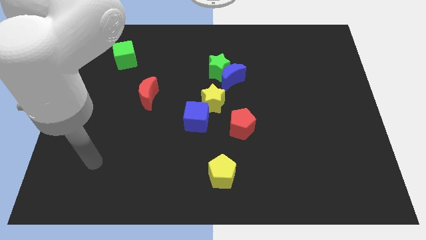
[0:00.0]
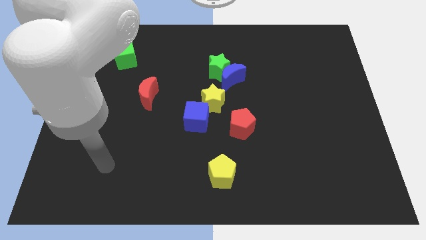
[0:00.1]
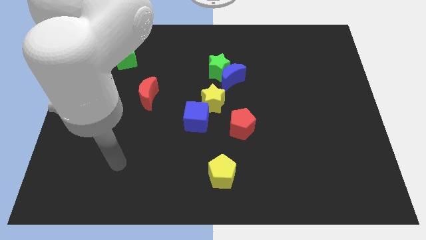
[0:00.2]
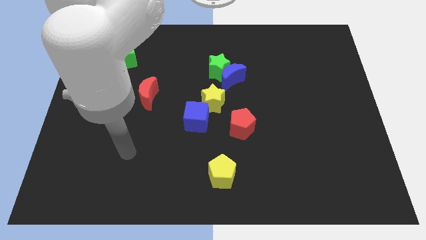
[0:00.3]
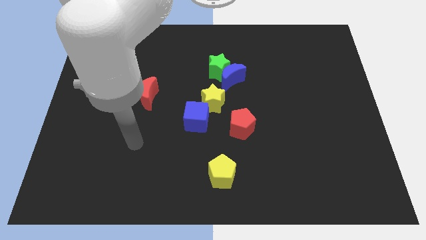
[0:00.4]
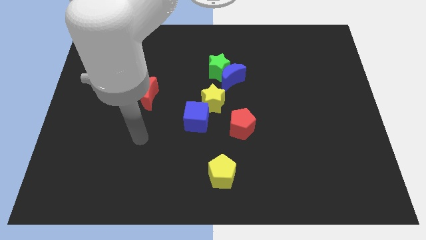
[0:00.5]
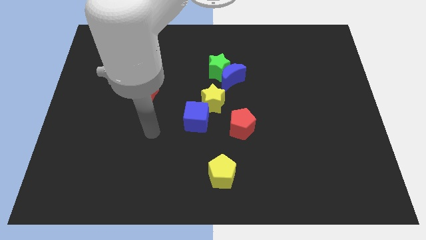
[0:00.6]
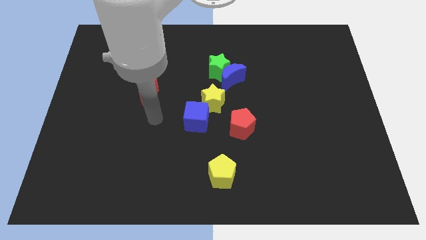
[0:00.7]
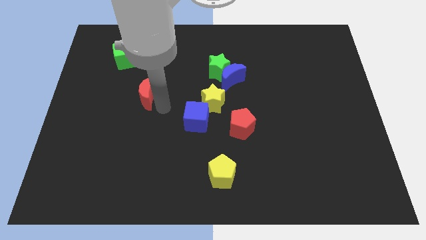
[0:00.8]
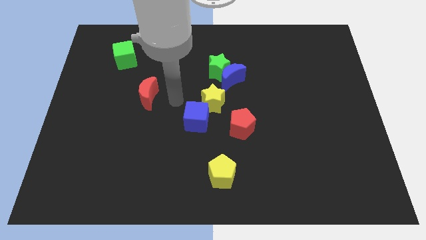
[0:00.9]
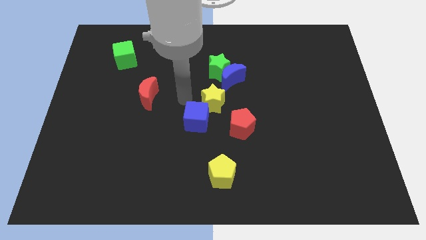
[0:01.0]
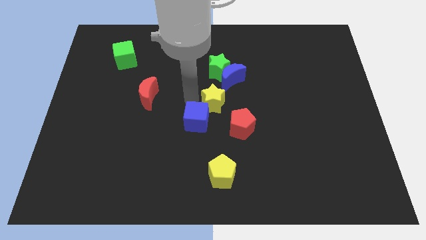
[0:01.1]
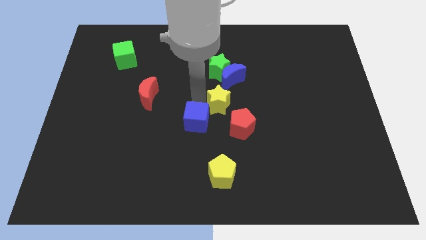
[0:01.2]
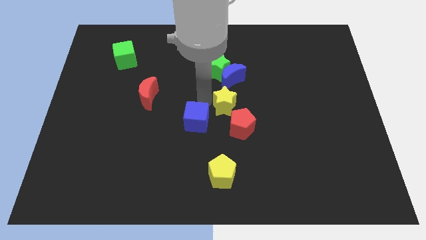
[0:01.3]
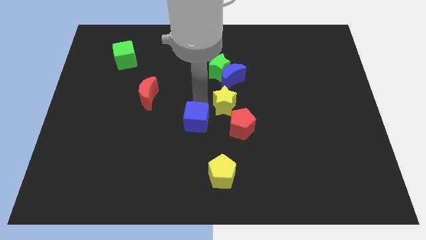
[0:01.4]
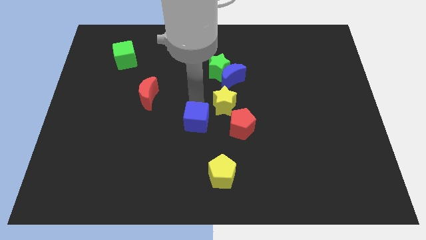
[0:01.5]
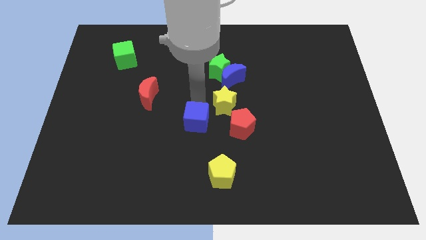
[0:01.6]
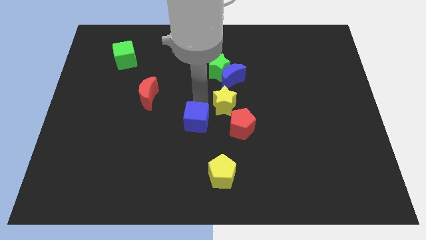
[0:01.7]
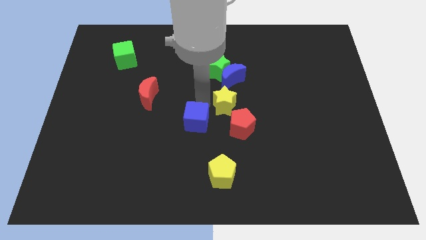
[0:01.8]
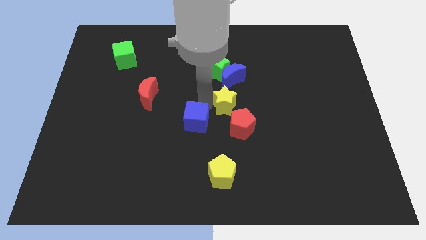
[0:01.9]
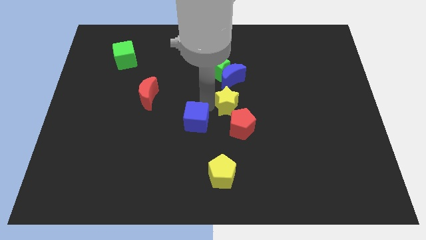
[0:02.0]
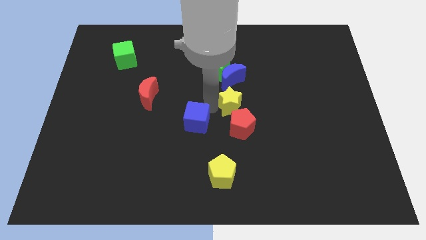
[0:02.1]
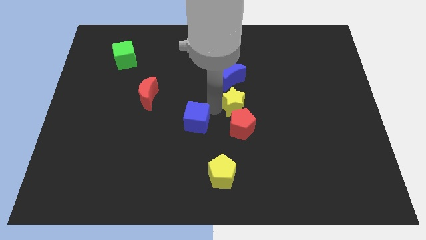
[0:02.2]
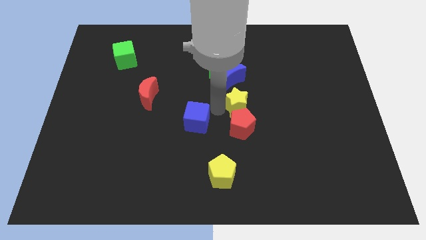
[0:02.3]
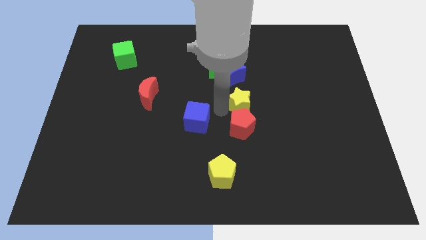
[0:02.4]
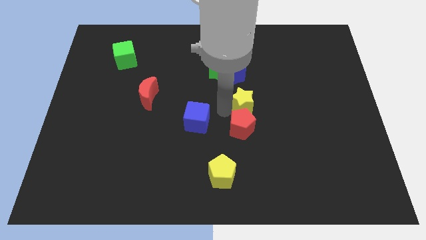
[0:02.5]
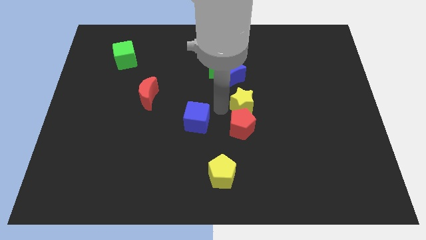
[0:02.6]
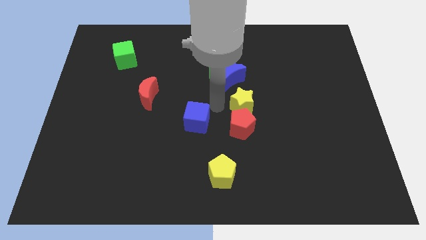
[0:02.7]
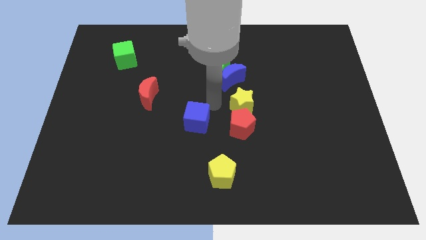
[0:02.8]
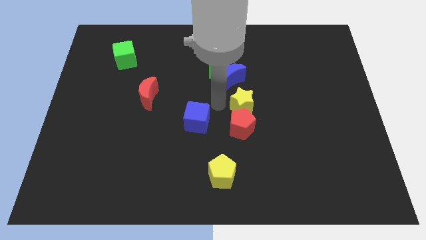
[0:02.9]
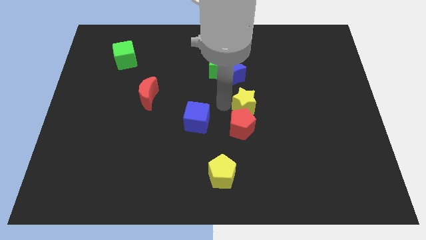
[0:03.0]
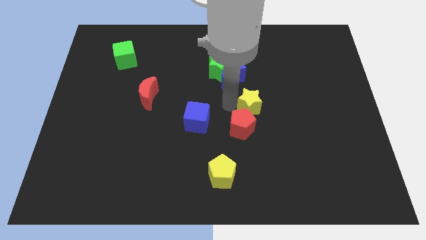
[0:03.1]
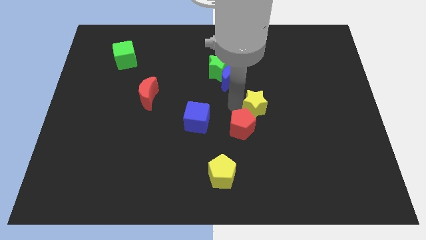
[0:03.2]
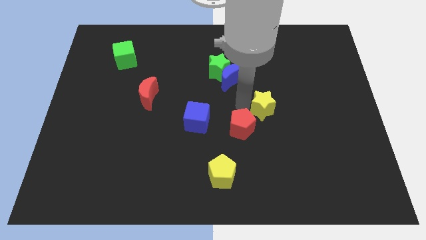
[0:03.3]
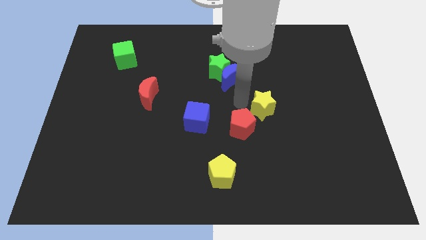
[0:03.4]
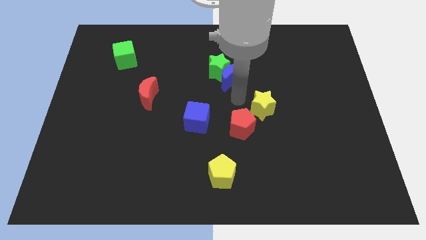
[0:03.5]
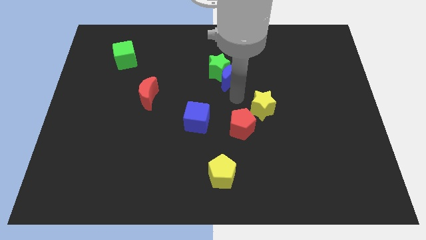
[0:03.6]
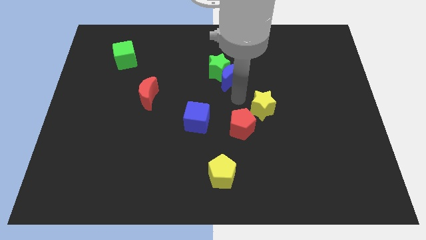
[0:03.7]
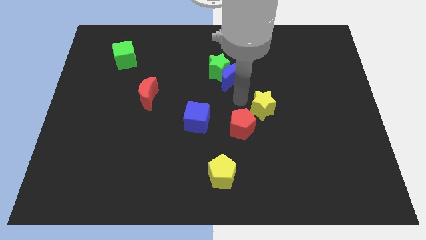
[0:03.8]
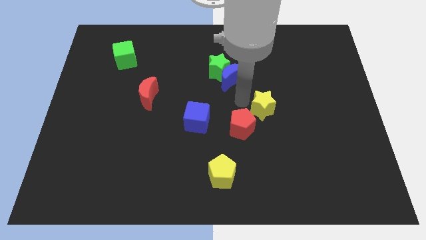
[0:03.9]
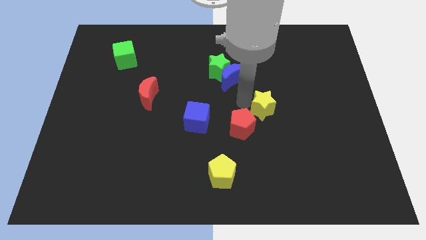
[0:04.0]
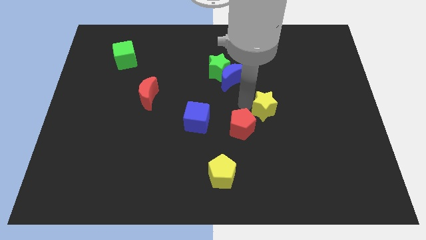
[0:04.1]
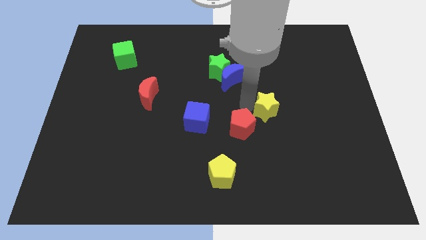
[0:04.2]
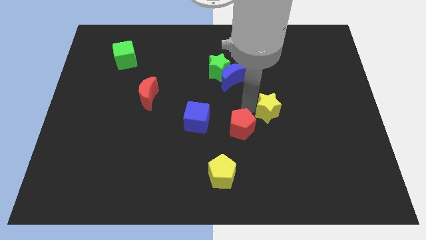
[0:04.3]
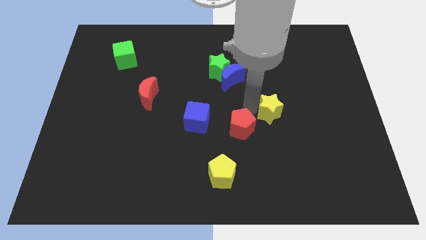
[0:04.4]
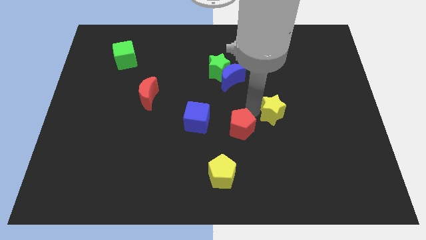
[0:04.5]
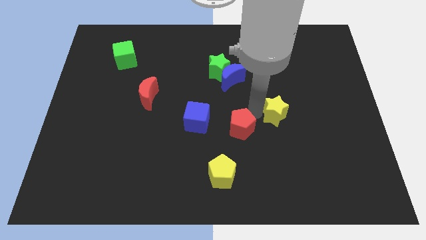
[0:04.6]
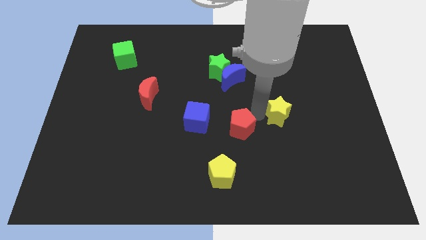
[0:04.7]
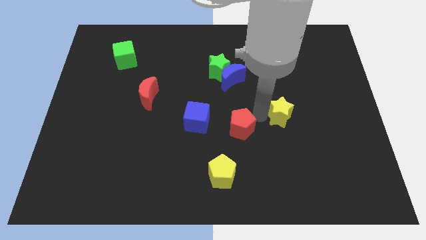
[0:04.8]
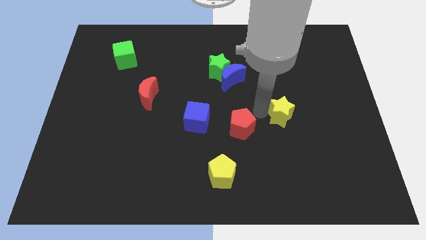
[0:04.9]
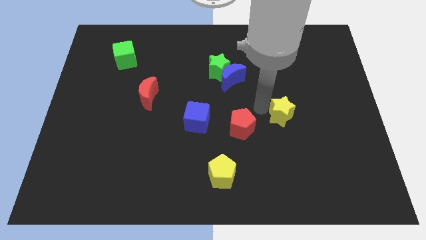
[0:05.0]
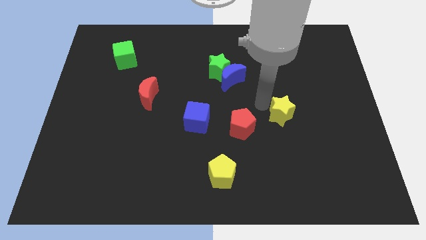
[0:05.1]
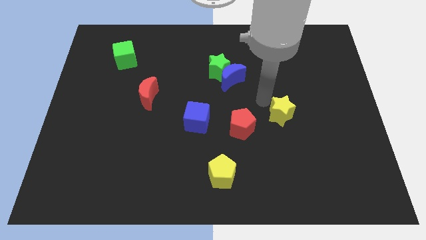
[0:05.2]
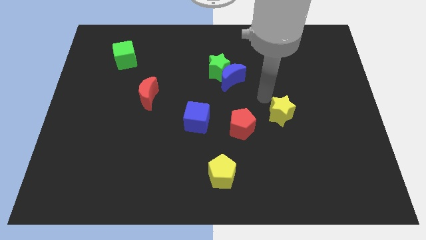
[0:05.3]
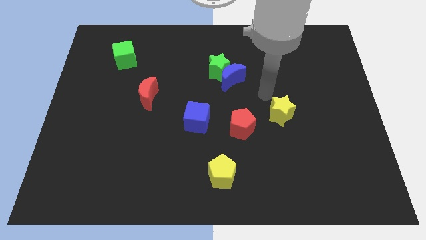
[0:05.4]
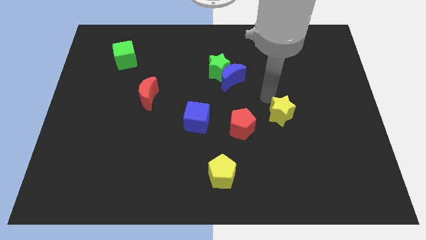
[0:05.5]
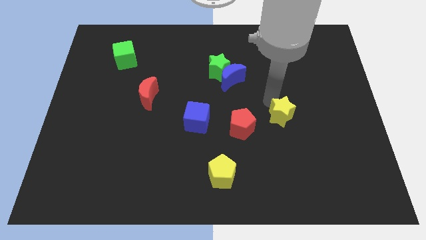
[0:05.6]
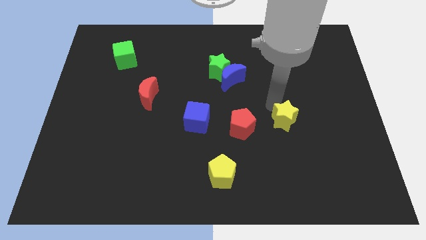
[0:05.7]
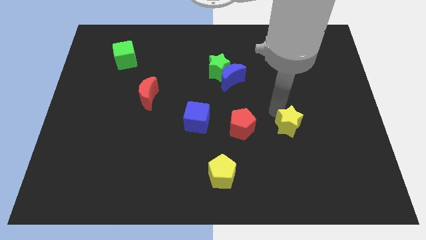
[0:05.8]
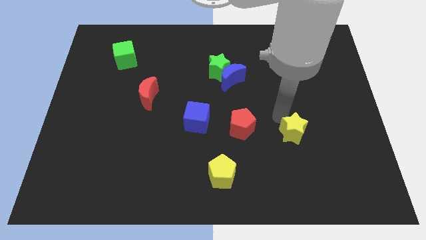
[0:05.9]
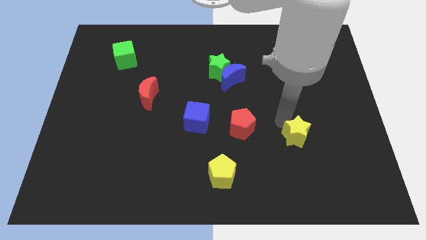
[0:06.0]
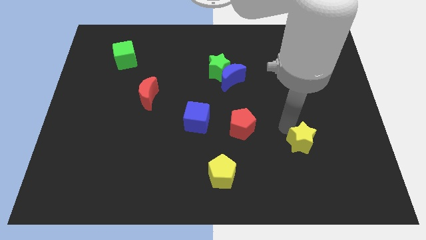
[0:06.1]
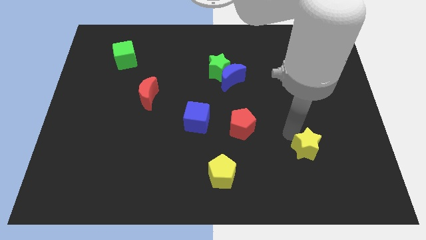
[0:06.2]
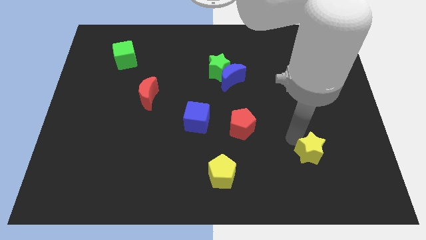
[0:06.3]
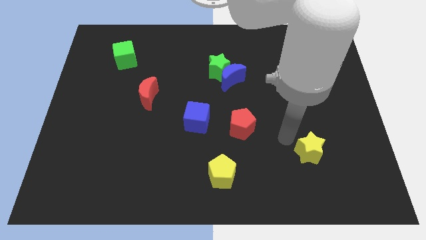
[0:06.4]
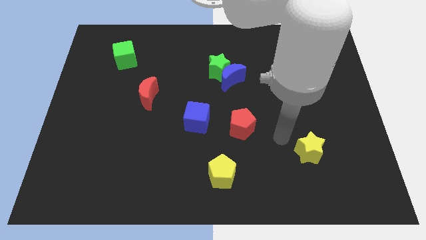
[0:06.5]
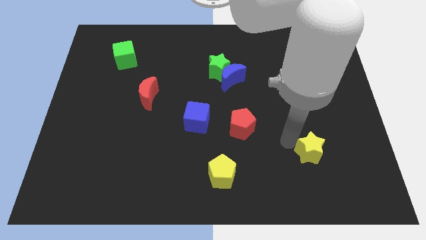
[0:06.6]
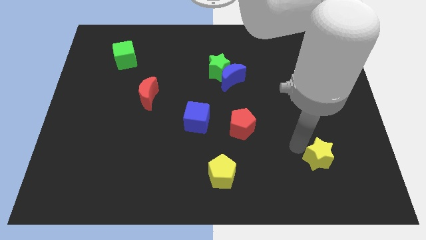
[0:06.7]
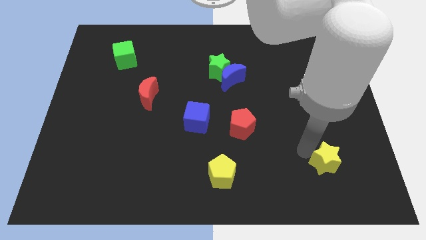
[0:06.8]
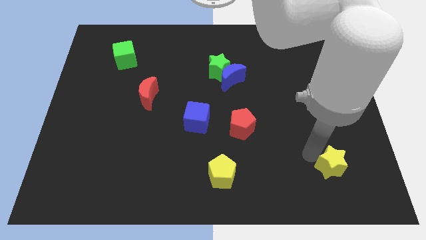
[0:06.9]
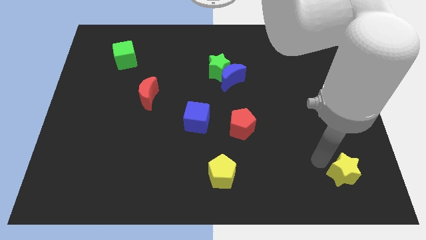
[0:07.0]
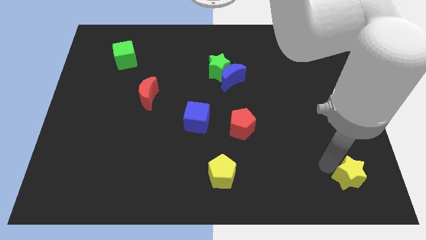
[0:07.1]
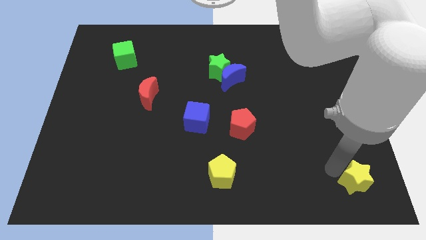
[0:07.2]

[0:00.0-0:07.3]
move the yellow star to the bottom right
